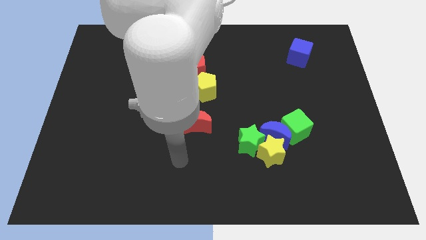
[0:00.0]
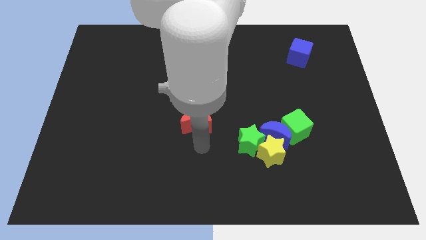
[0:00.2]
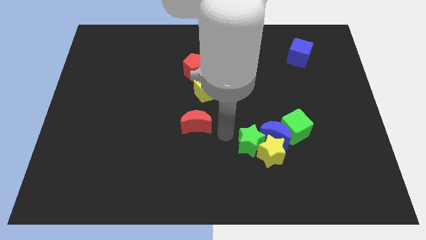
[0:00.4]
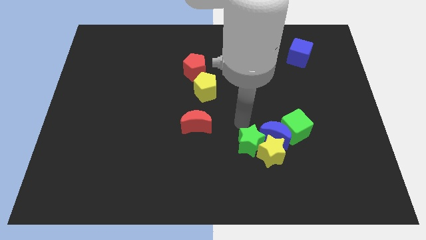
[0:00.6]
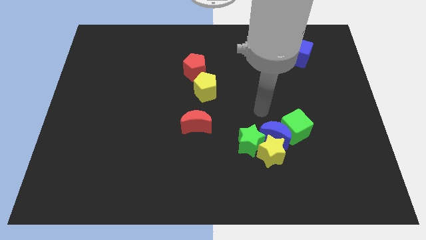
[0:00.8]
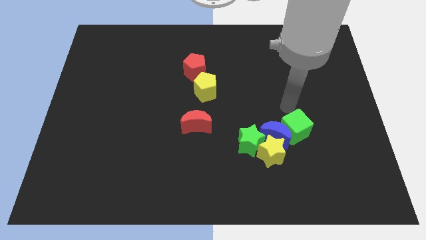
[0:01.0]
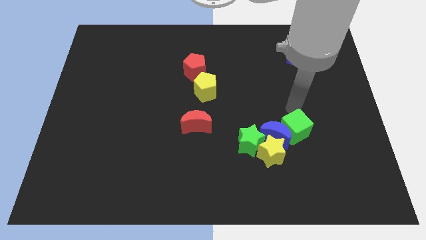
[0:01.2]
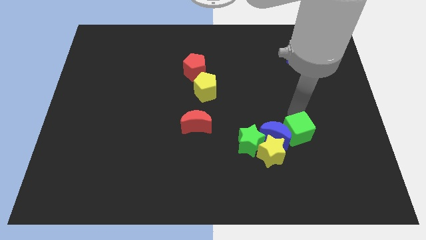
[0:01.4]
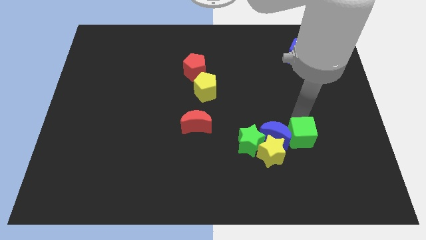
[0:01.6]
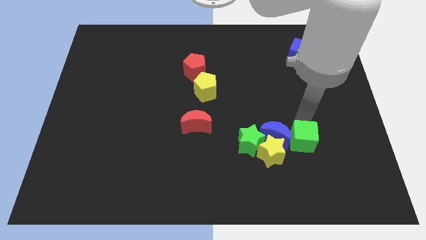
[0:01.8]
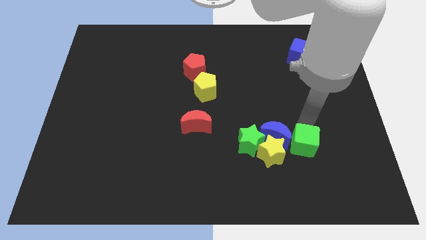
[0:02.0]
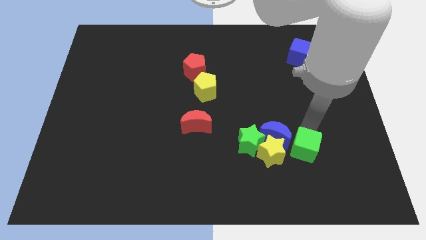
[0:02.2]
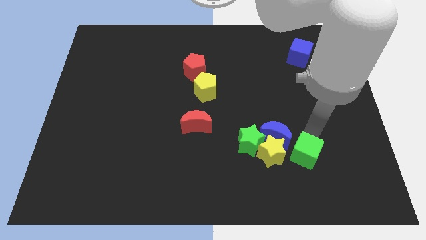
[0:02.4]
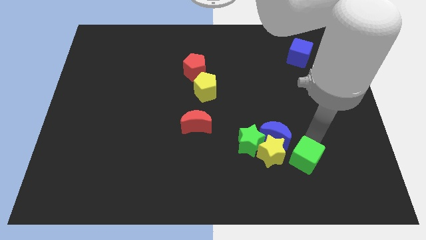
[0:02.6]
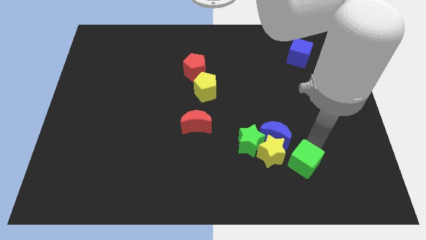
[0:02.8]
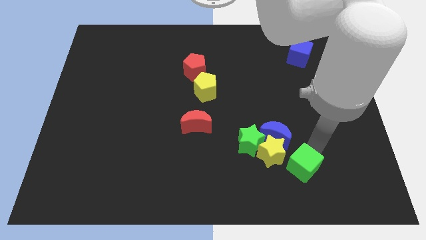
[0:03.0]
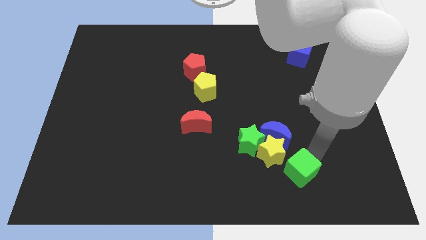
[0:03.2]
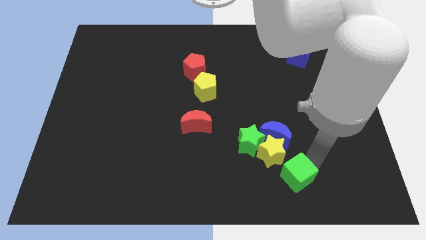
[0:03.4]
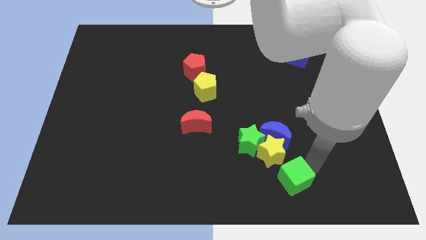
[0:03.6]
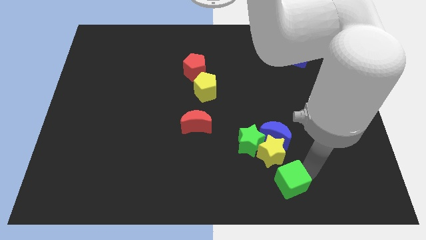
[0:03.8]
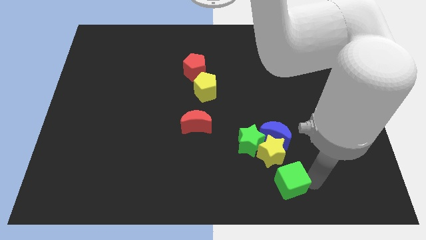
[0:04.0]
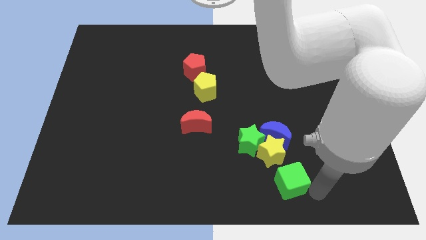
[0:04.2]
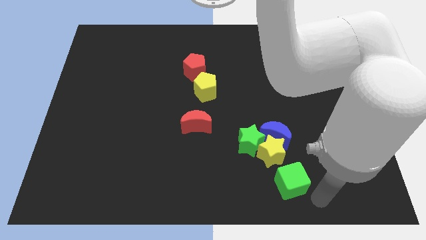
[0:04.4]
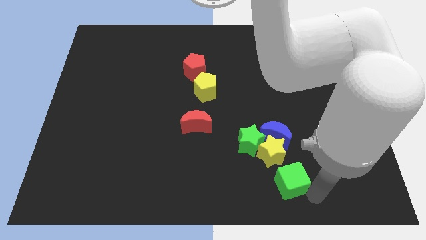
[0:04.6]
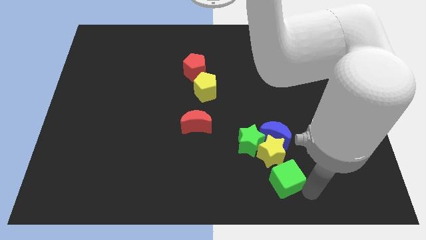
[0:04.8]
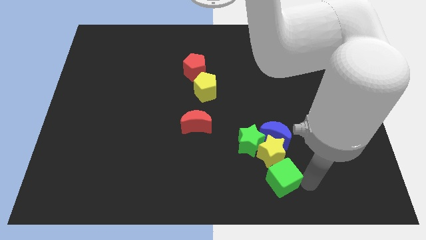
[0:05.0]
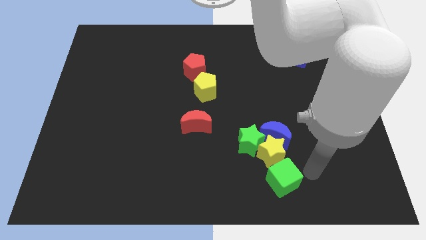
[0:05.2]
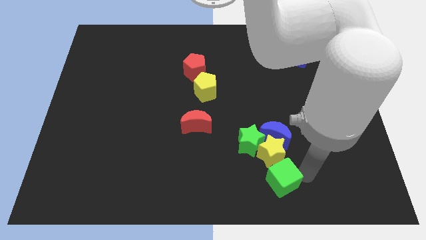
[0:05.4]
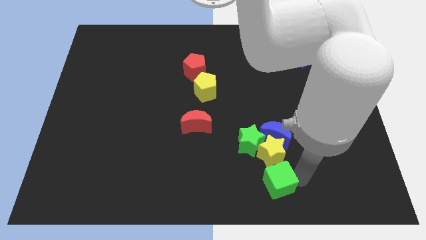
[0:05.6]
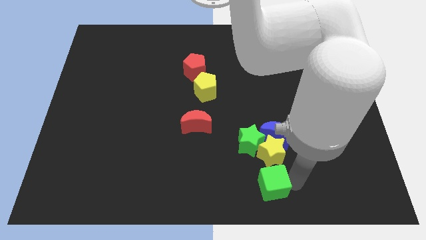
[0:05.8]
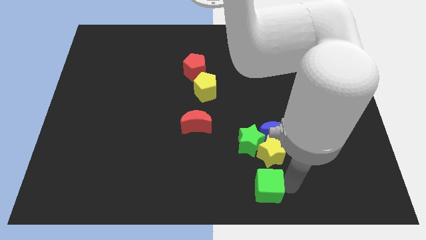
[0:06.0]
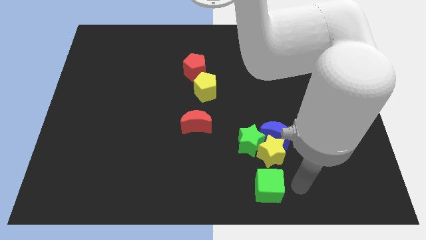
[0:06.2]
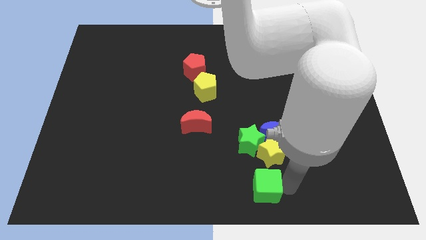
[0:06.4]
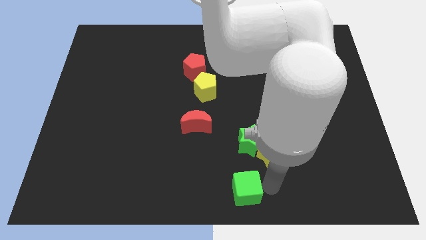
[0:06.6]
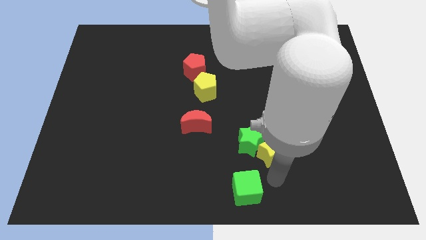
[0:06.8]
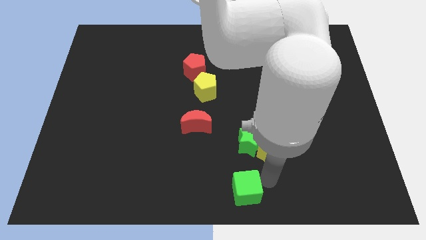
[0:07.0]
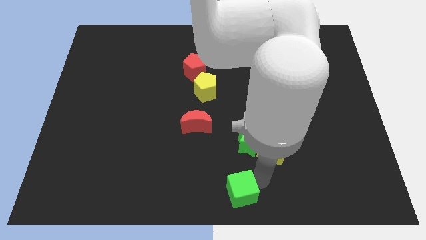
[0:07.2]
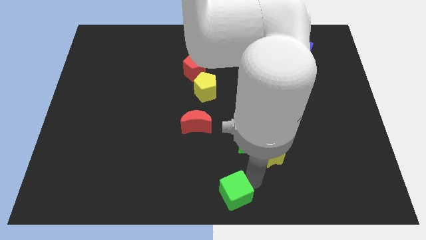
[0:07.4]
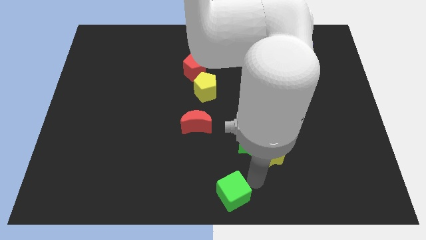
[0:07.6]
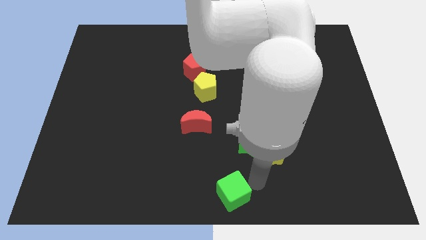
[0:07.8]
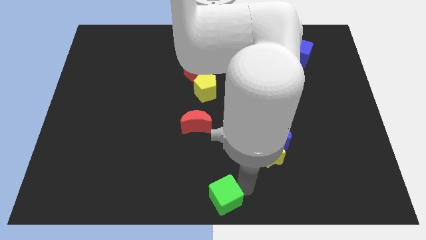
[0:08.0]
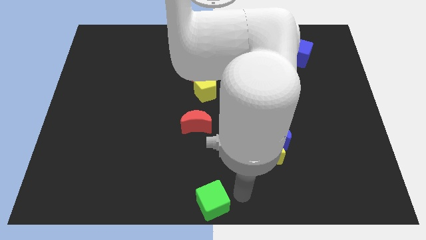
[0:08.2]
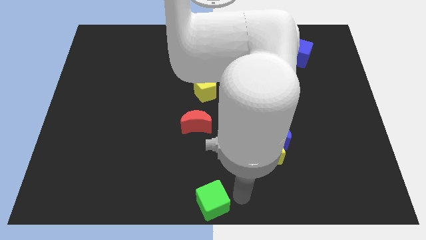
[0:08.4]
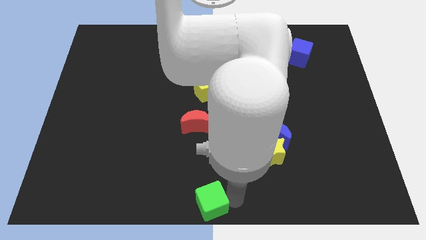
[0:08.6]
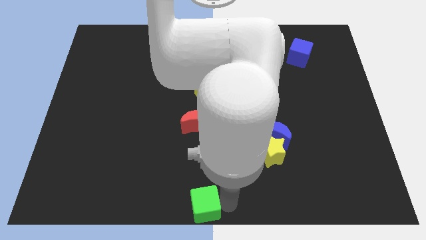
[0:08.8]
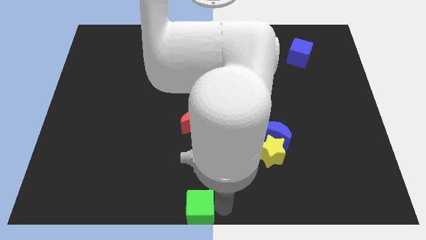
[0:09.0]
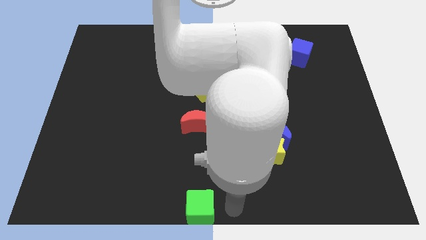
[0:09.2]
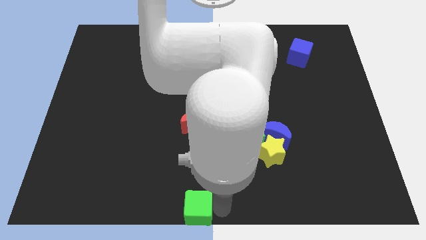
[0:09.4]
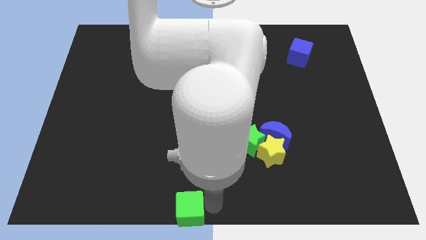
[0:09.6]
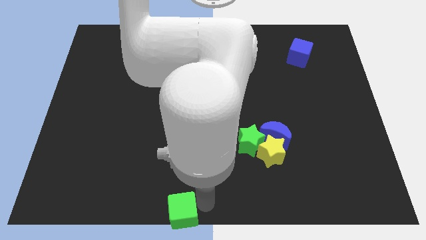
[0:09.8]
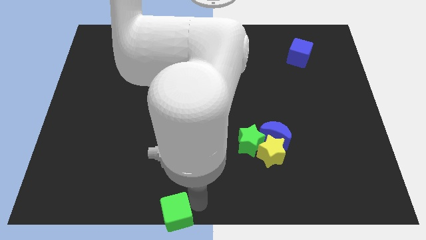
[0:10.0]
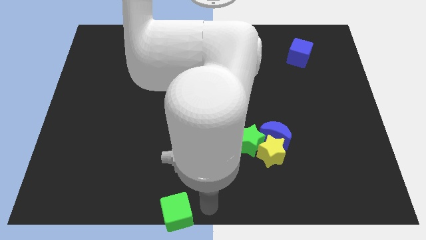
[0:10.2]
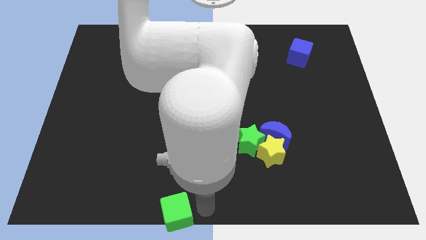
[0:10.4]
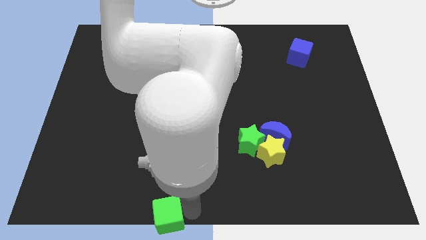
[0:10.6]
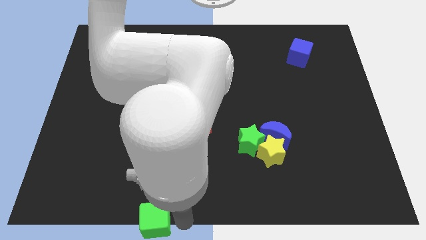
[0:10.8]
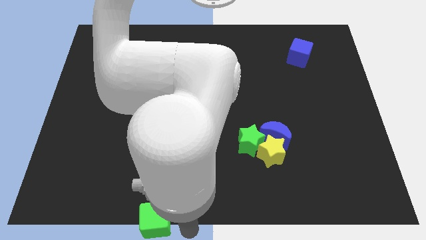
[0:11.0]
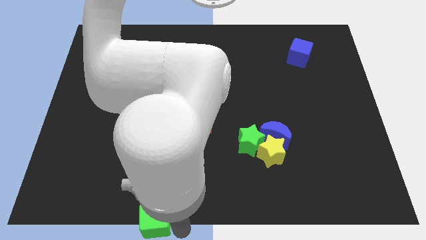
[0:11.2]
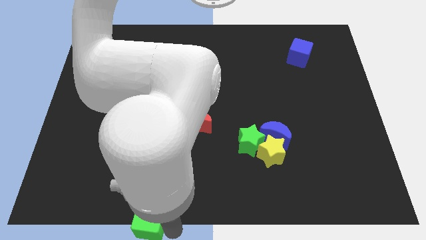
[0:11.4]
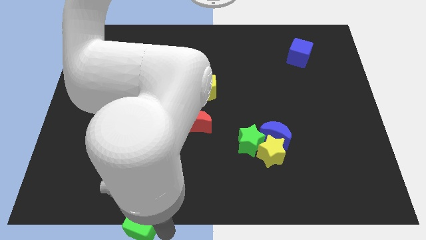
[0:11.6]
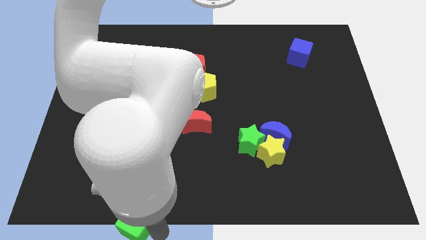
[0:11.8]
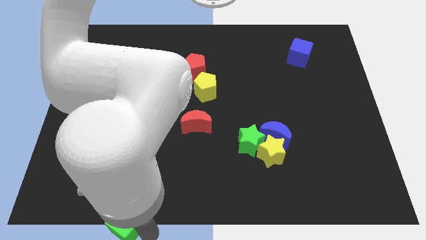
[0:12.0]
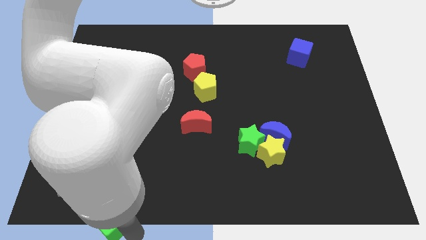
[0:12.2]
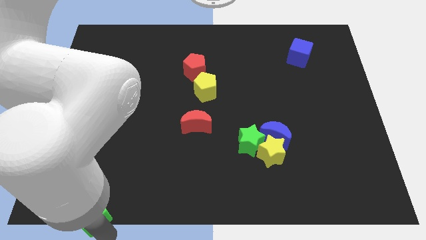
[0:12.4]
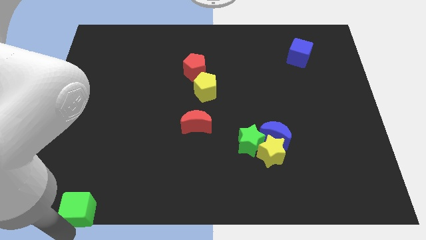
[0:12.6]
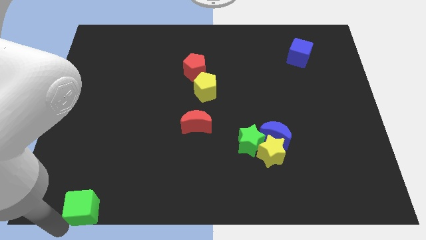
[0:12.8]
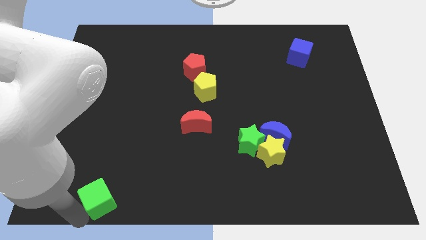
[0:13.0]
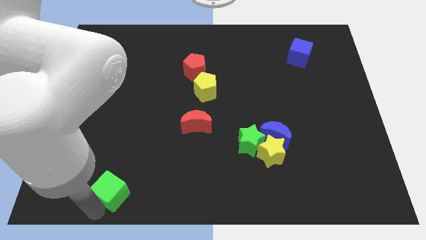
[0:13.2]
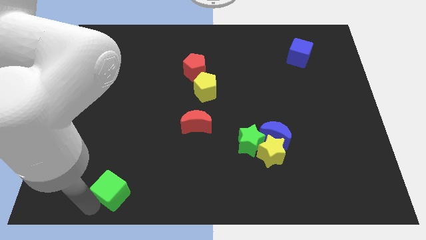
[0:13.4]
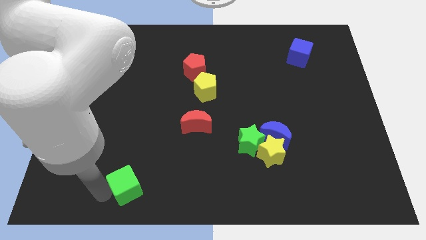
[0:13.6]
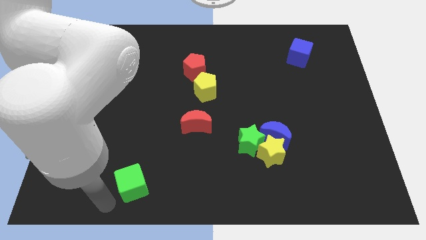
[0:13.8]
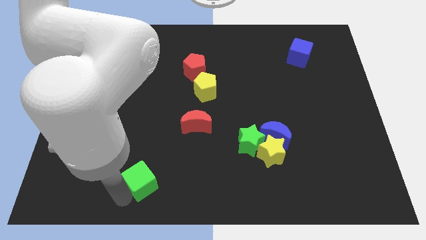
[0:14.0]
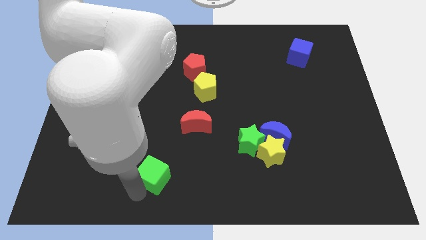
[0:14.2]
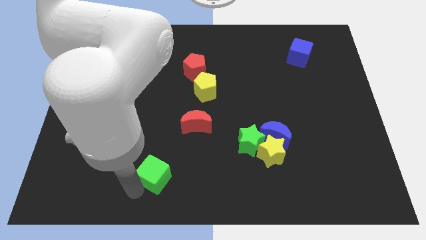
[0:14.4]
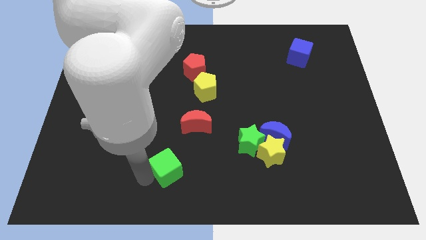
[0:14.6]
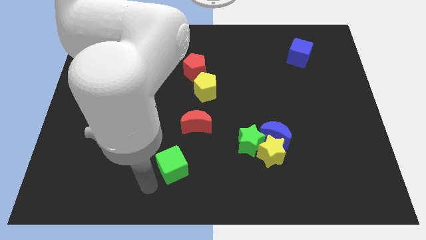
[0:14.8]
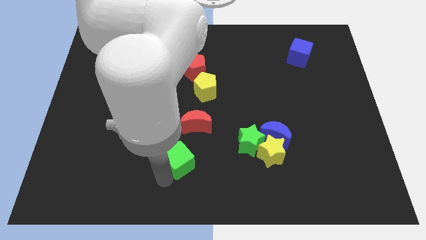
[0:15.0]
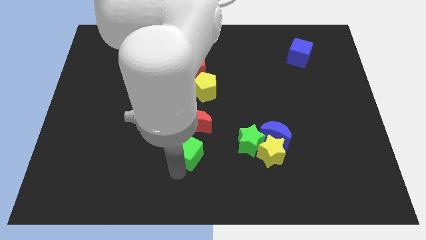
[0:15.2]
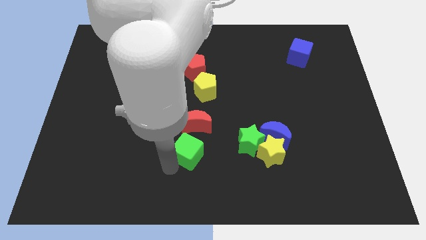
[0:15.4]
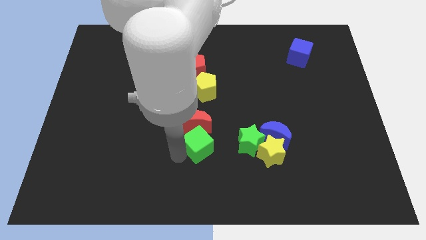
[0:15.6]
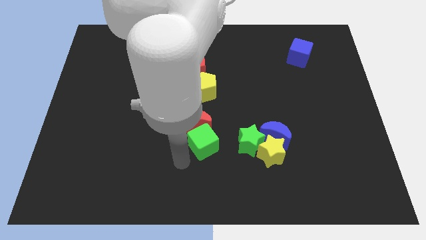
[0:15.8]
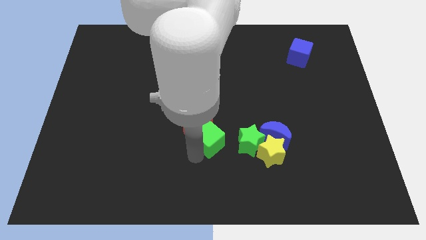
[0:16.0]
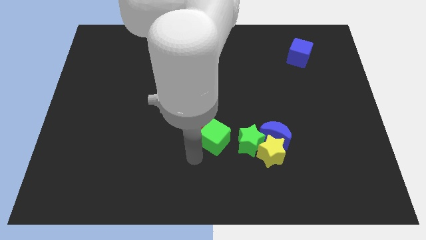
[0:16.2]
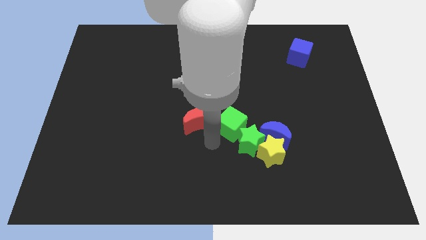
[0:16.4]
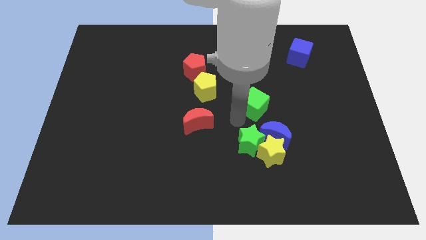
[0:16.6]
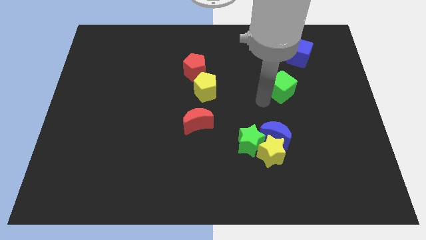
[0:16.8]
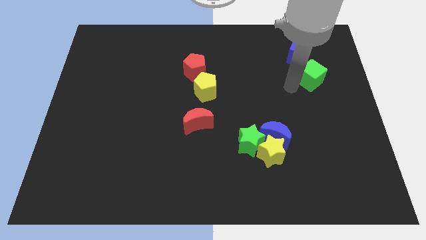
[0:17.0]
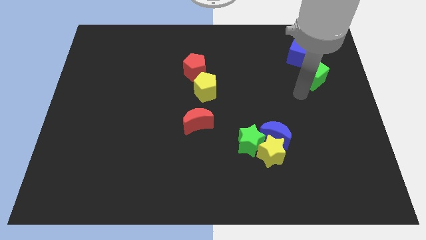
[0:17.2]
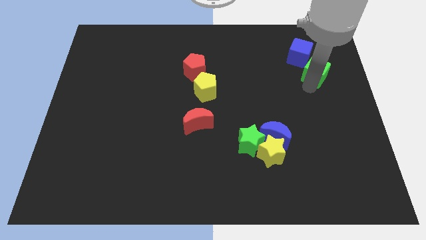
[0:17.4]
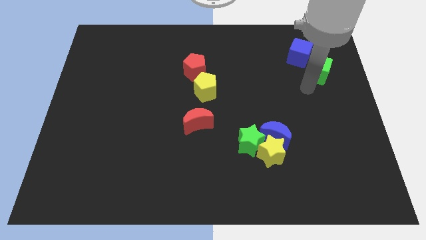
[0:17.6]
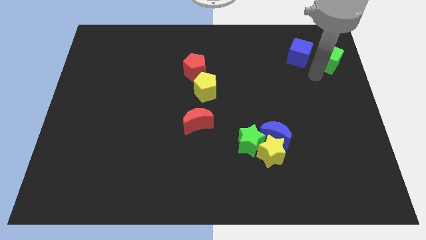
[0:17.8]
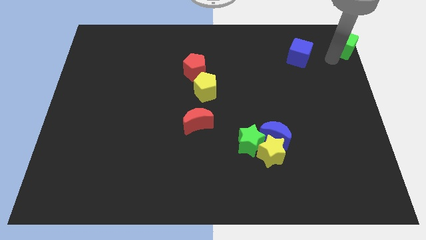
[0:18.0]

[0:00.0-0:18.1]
push the green cube to the upper right corner
